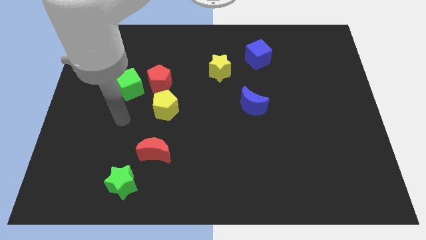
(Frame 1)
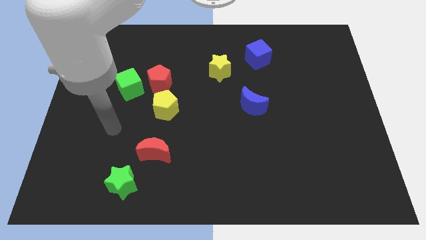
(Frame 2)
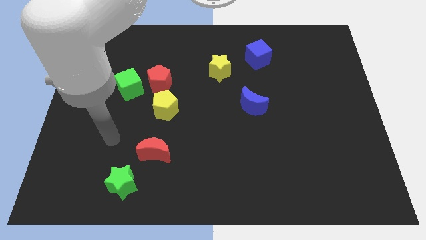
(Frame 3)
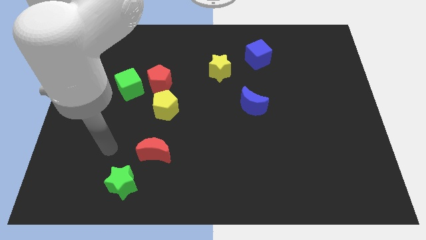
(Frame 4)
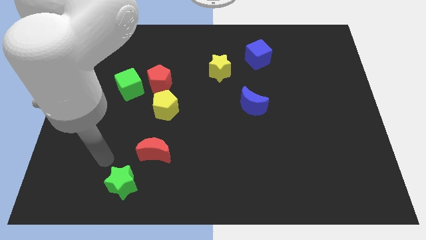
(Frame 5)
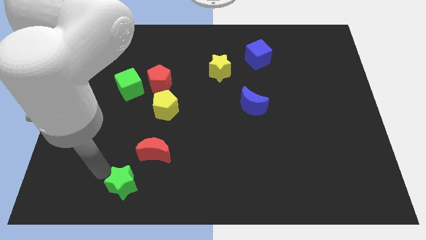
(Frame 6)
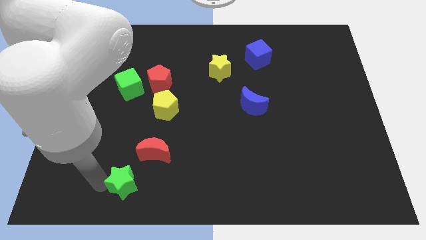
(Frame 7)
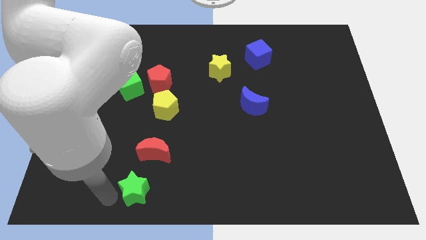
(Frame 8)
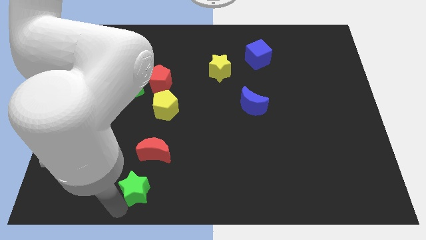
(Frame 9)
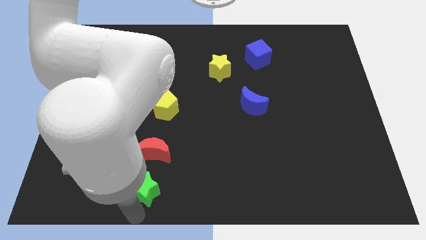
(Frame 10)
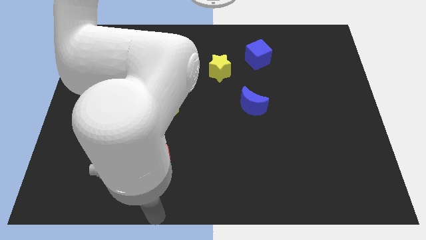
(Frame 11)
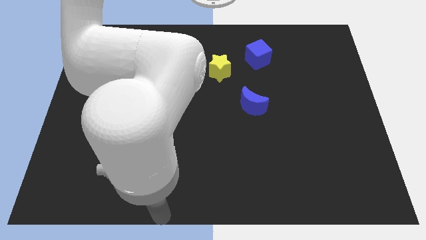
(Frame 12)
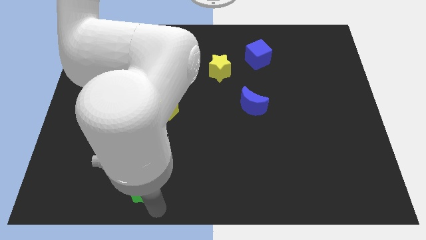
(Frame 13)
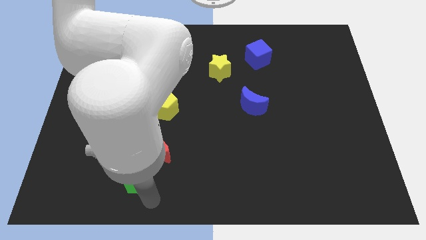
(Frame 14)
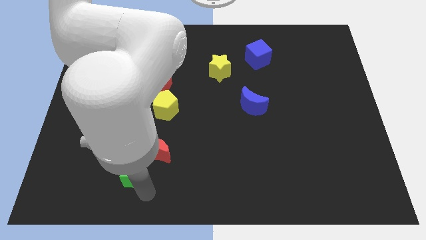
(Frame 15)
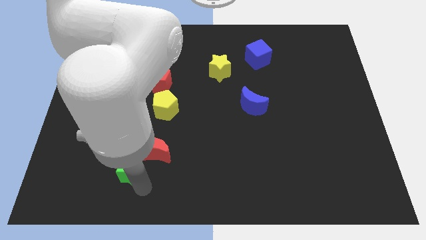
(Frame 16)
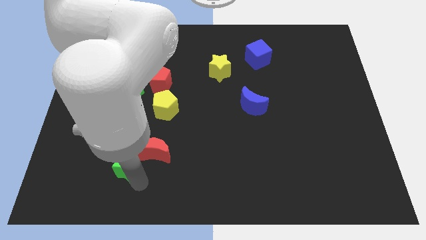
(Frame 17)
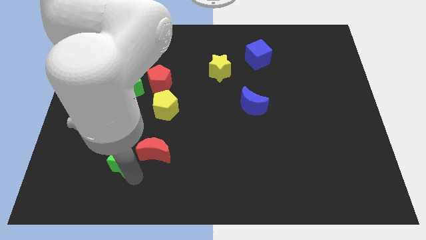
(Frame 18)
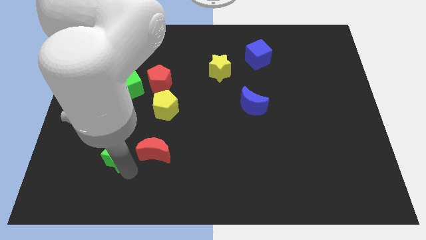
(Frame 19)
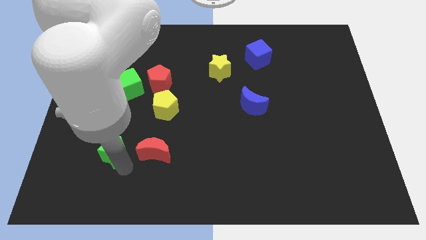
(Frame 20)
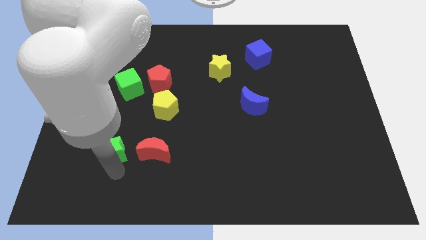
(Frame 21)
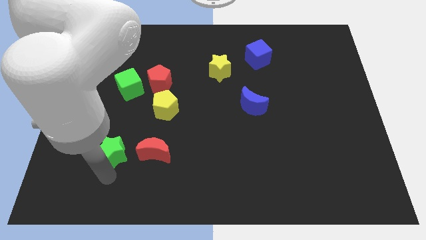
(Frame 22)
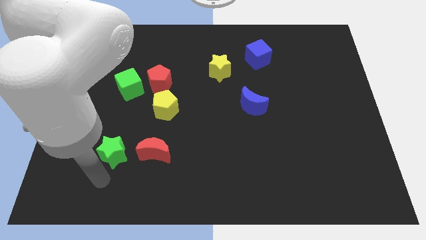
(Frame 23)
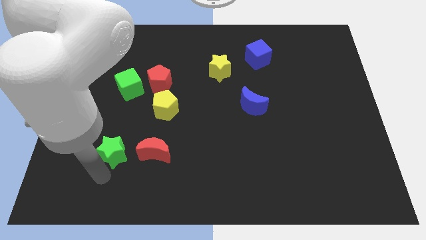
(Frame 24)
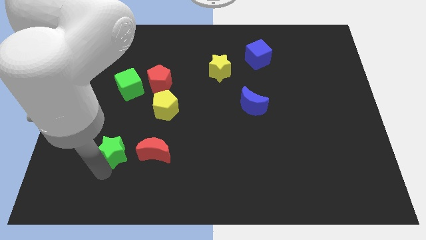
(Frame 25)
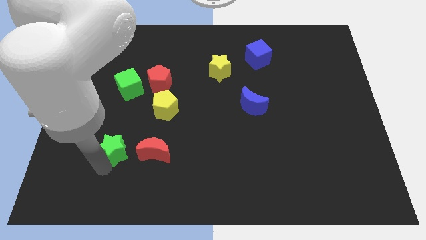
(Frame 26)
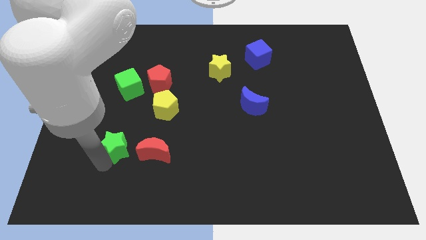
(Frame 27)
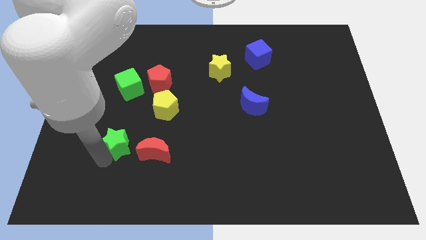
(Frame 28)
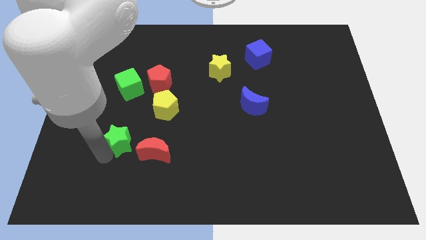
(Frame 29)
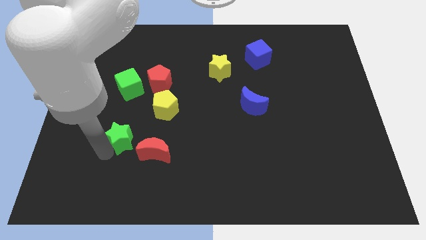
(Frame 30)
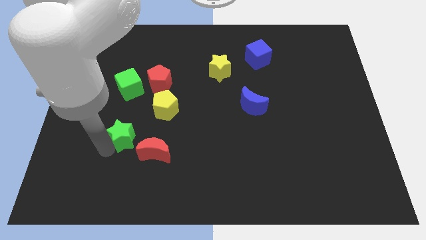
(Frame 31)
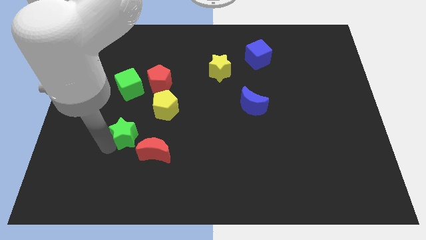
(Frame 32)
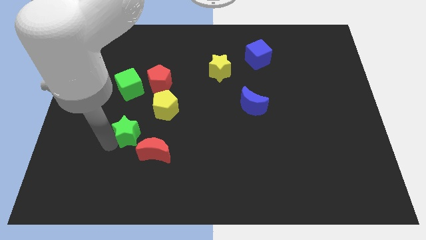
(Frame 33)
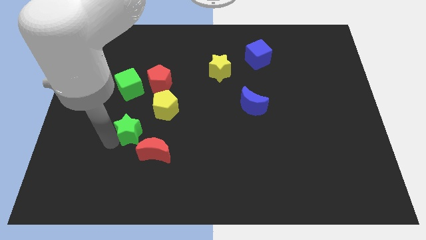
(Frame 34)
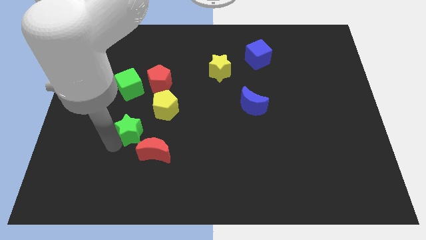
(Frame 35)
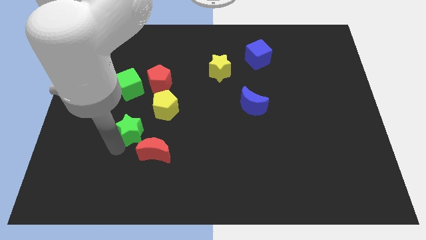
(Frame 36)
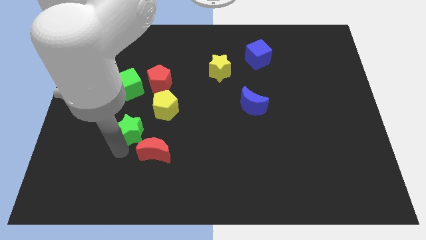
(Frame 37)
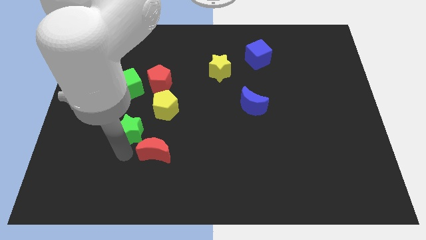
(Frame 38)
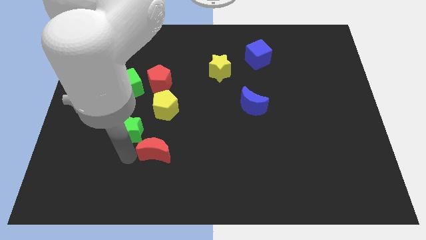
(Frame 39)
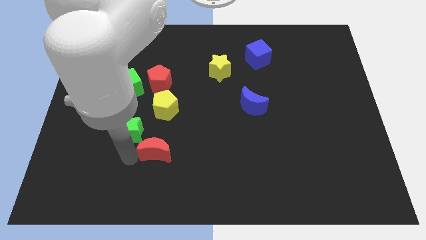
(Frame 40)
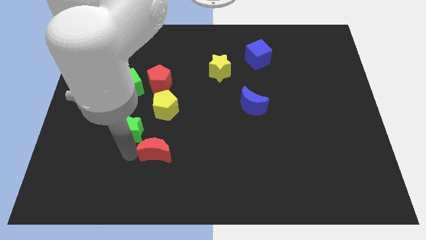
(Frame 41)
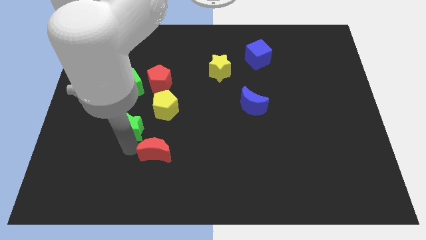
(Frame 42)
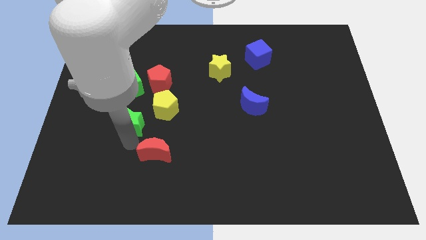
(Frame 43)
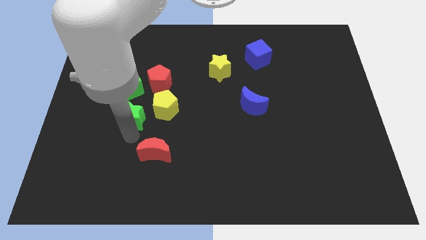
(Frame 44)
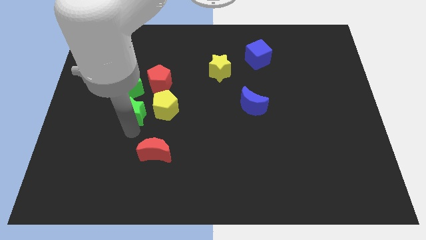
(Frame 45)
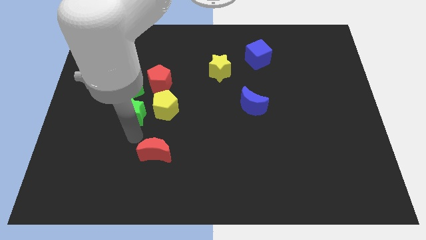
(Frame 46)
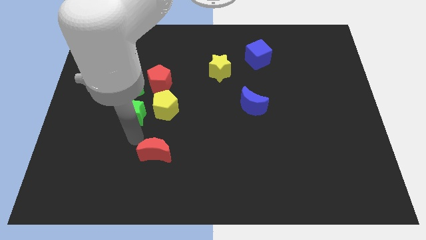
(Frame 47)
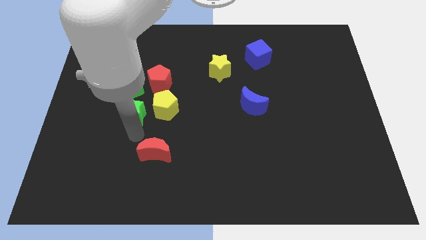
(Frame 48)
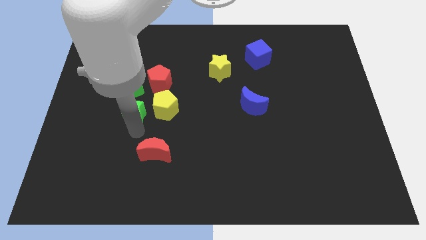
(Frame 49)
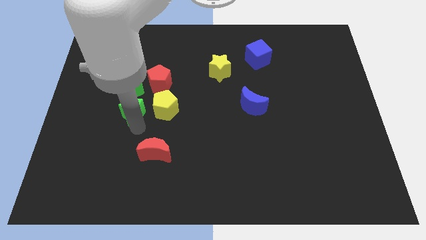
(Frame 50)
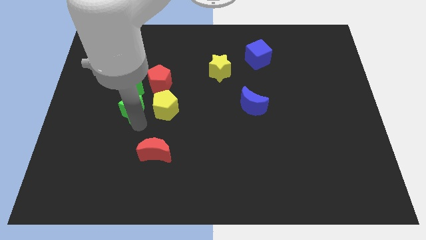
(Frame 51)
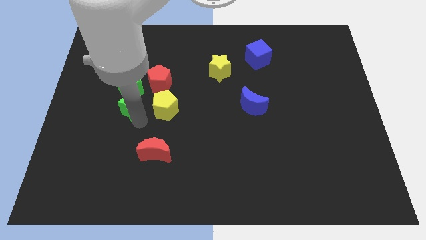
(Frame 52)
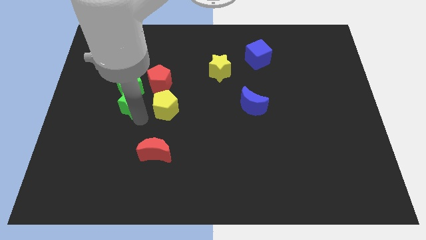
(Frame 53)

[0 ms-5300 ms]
push the green star to the green cube

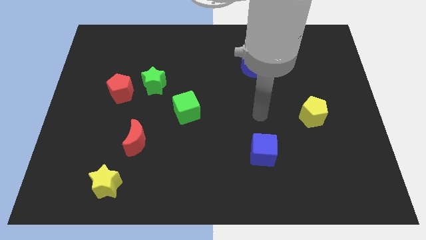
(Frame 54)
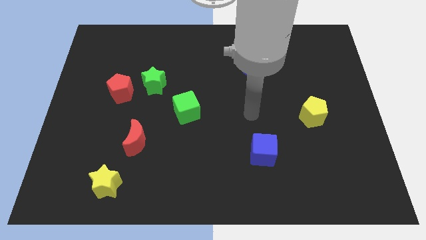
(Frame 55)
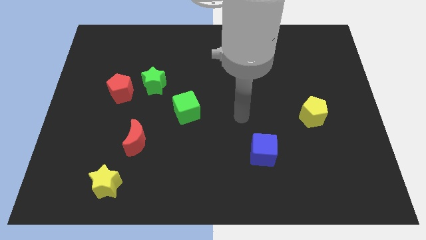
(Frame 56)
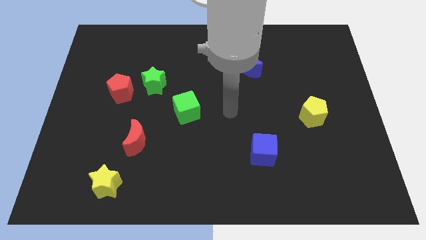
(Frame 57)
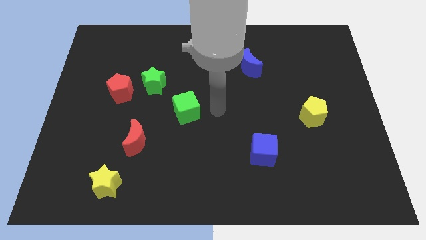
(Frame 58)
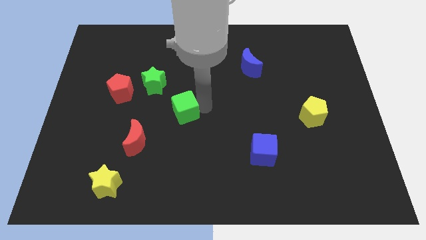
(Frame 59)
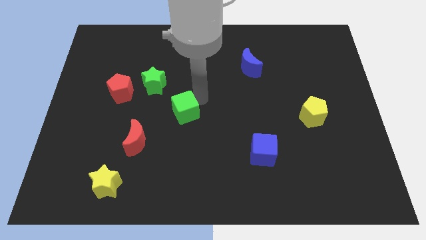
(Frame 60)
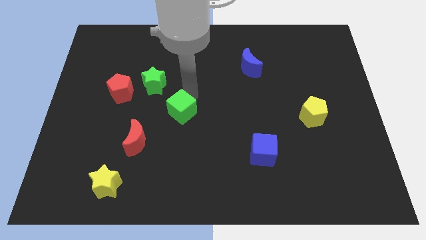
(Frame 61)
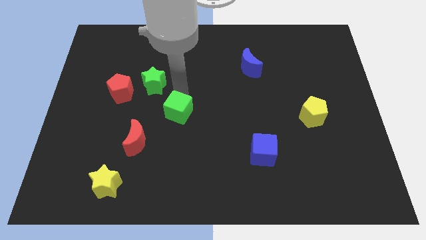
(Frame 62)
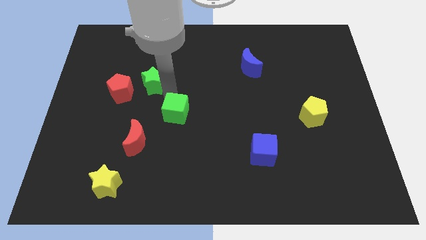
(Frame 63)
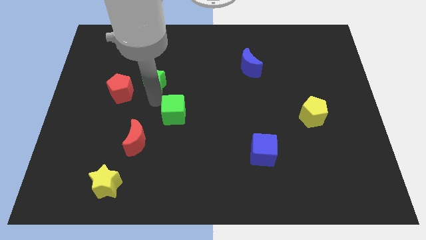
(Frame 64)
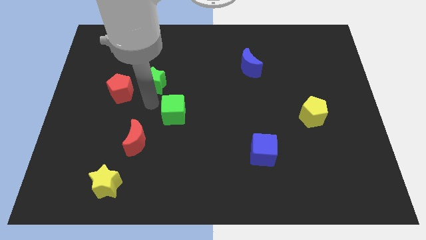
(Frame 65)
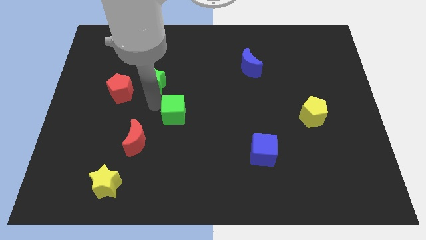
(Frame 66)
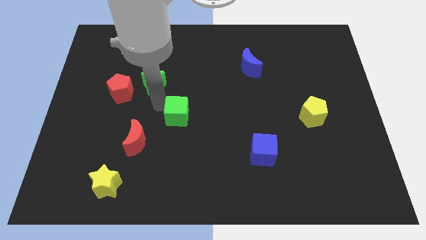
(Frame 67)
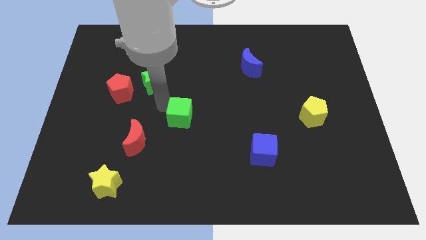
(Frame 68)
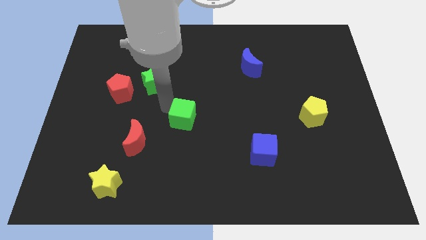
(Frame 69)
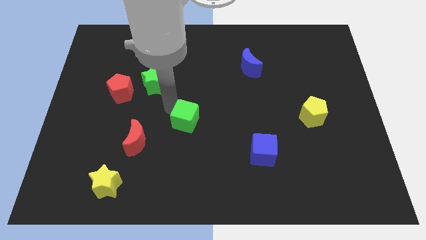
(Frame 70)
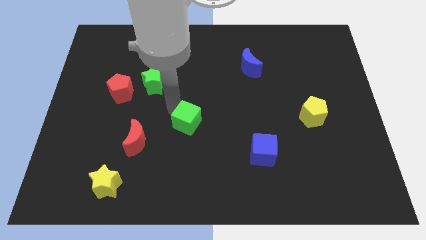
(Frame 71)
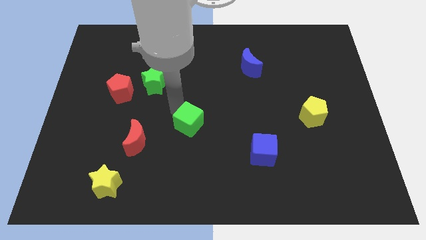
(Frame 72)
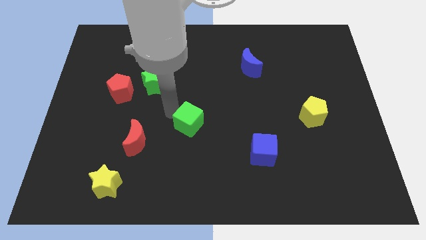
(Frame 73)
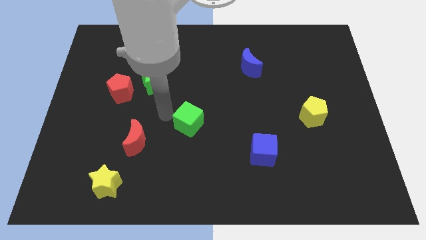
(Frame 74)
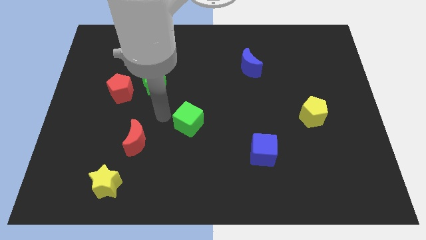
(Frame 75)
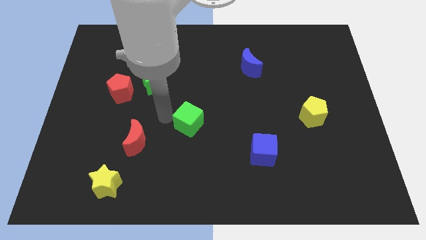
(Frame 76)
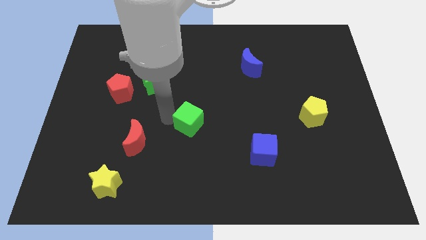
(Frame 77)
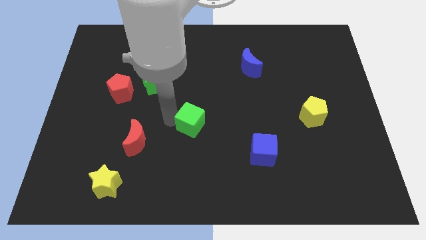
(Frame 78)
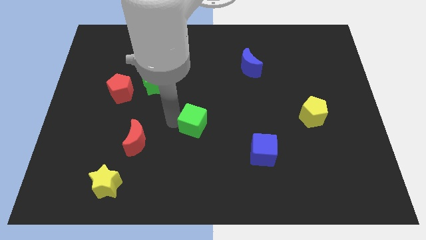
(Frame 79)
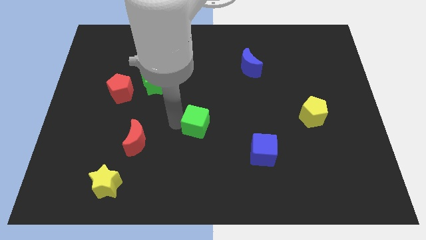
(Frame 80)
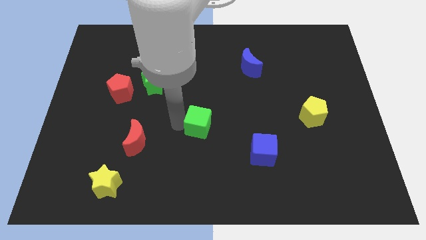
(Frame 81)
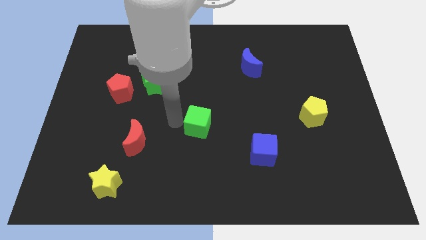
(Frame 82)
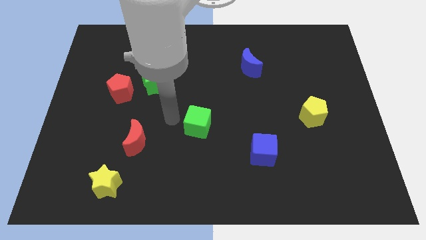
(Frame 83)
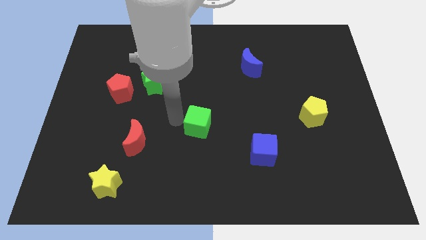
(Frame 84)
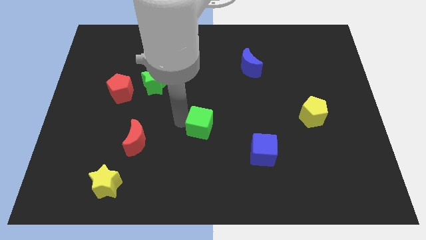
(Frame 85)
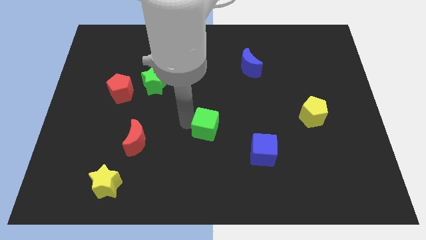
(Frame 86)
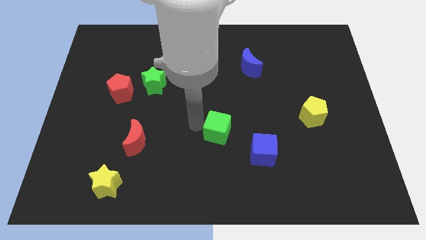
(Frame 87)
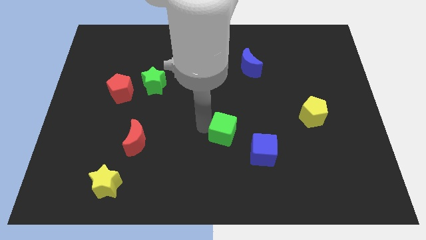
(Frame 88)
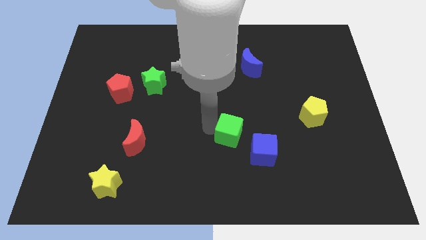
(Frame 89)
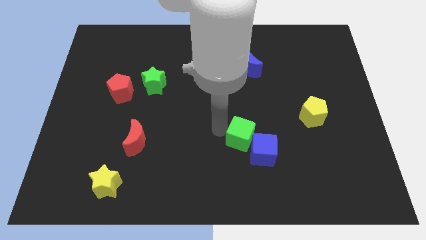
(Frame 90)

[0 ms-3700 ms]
slide the green cube close to the blue cube
